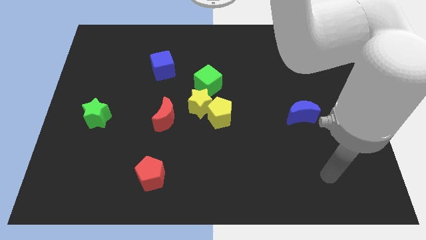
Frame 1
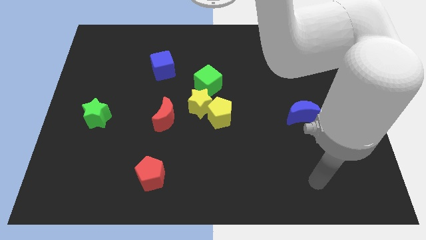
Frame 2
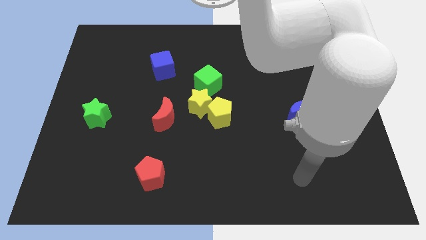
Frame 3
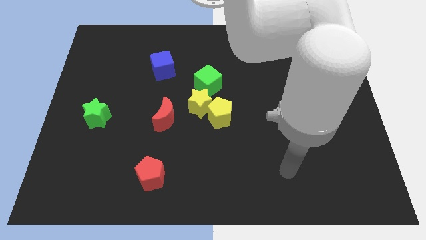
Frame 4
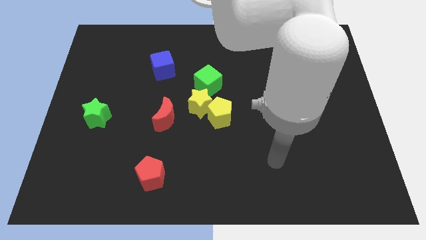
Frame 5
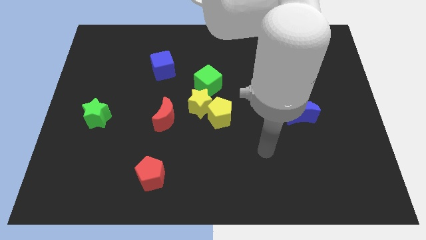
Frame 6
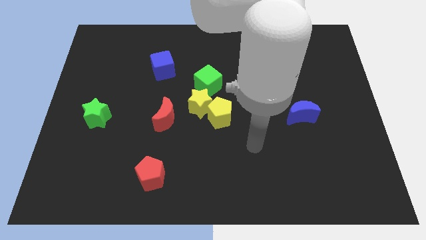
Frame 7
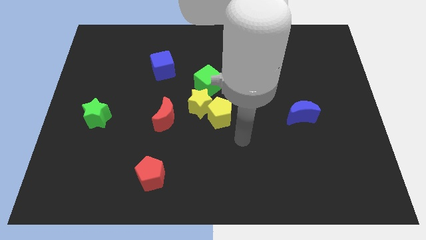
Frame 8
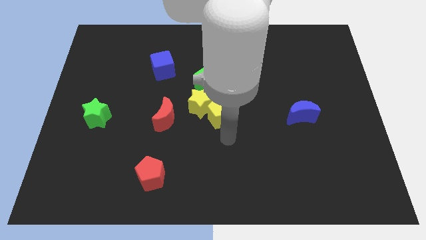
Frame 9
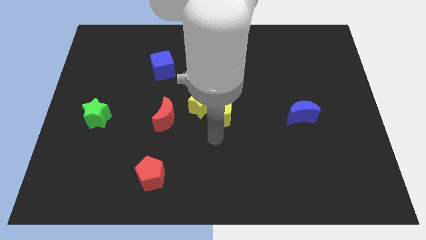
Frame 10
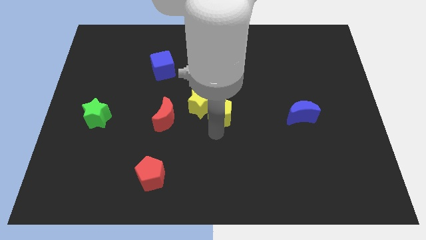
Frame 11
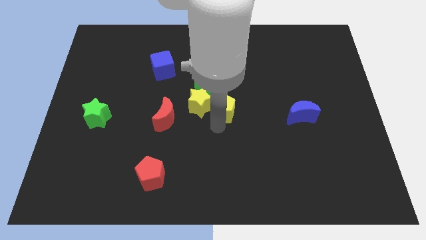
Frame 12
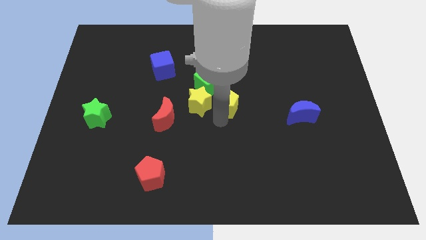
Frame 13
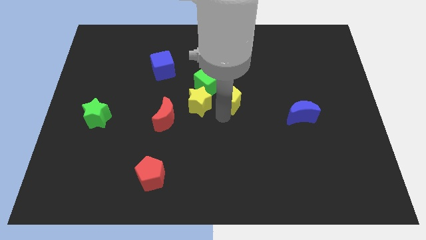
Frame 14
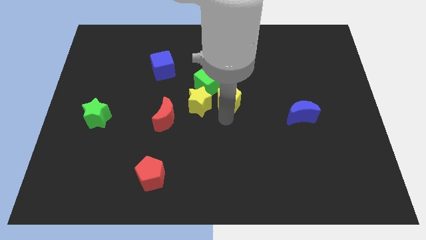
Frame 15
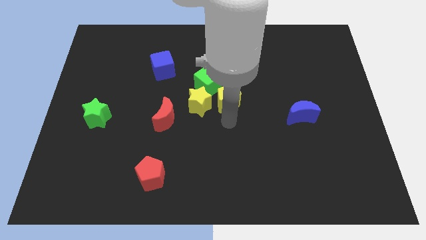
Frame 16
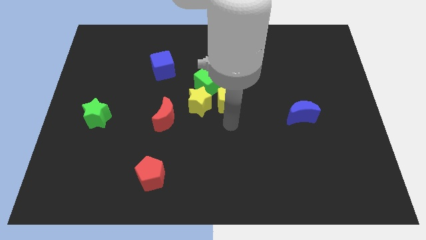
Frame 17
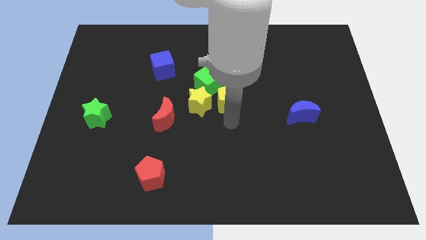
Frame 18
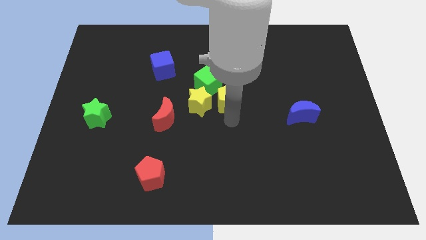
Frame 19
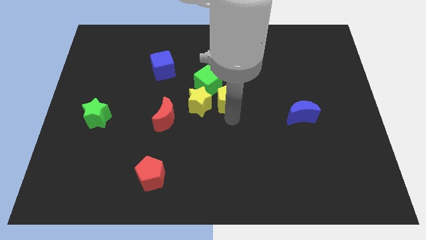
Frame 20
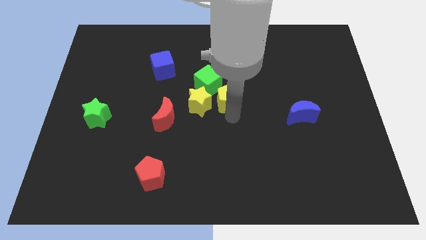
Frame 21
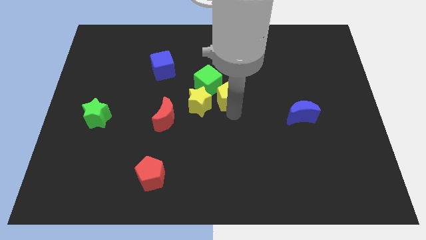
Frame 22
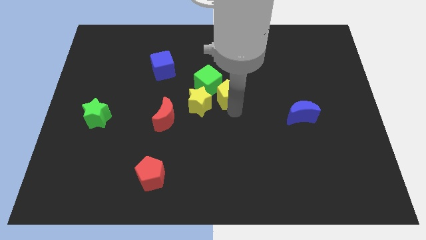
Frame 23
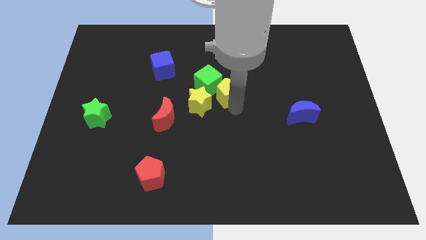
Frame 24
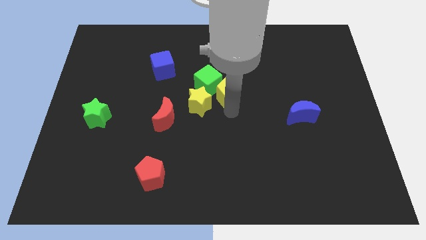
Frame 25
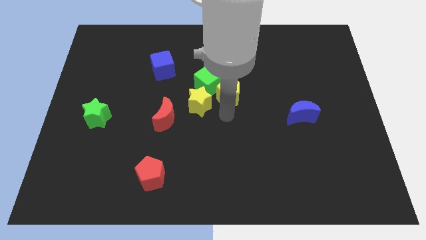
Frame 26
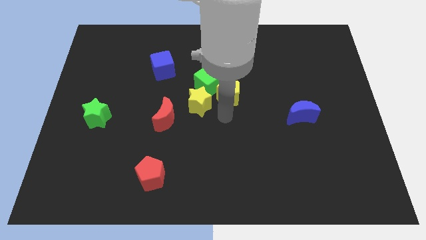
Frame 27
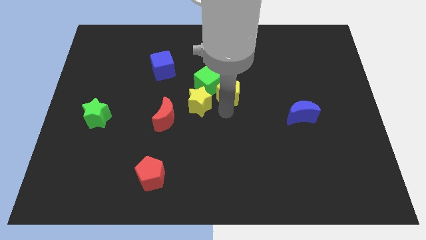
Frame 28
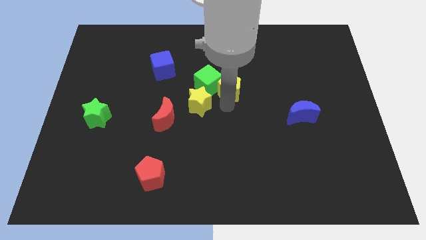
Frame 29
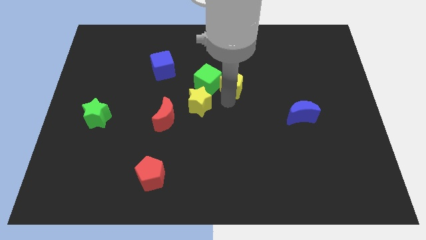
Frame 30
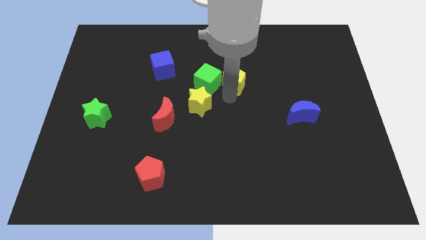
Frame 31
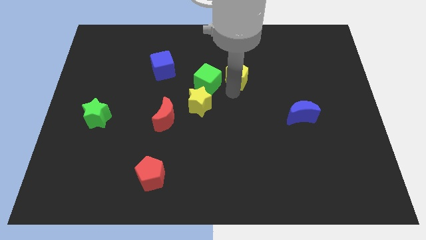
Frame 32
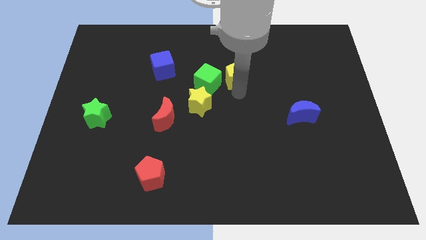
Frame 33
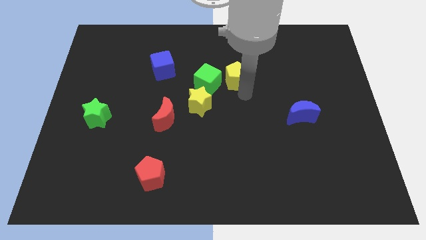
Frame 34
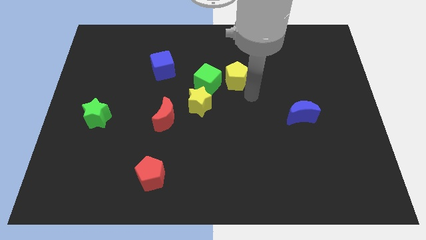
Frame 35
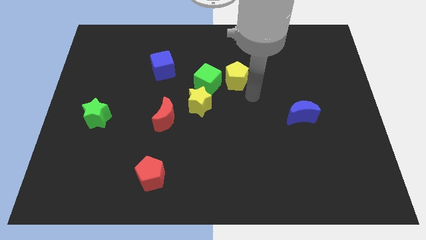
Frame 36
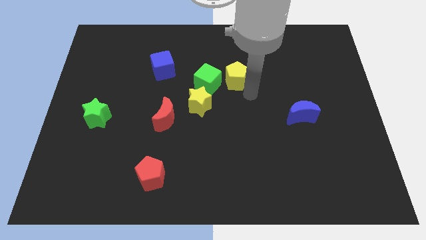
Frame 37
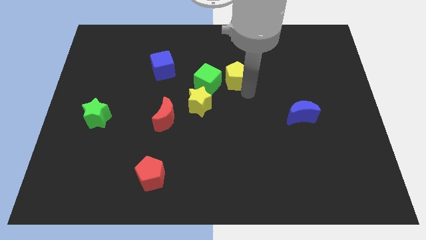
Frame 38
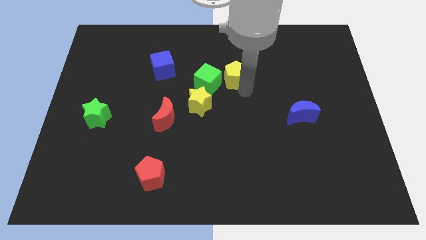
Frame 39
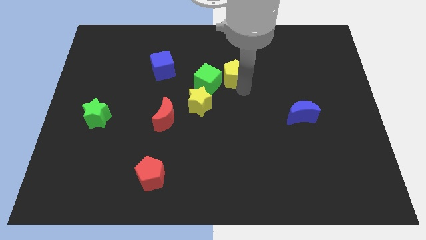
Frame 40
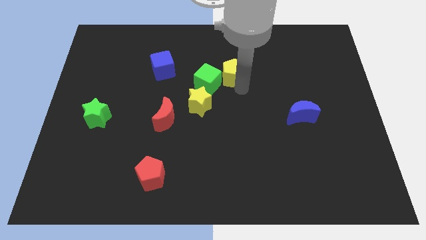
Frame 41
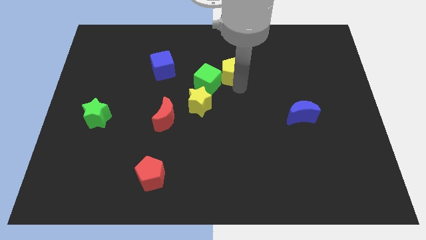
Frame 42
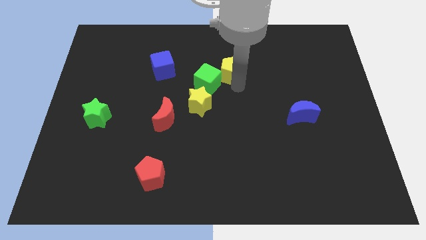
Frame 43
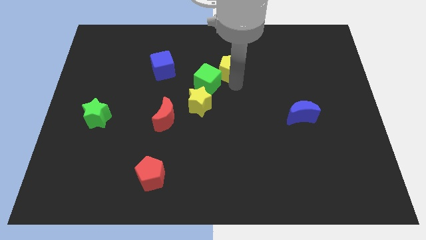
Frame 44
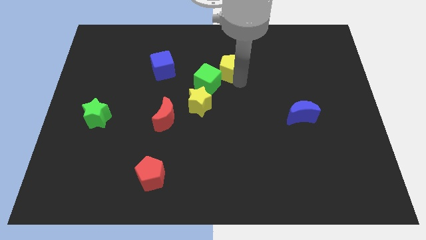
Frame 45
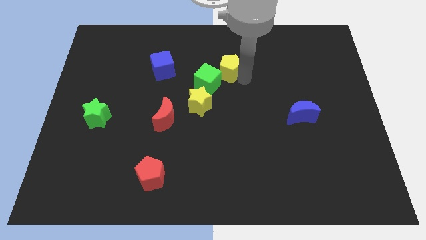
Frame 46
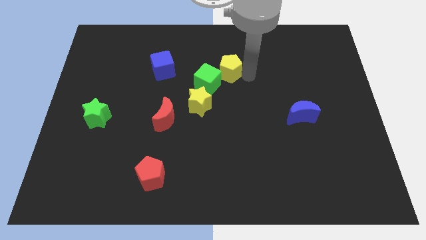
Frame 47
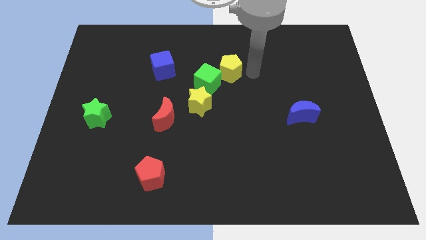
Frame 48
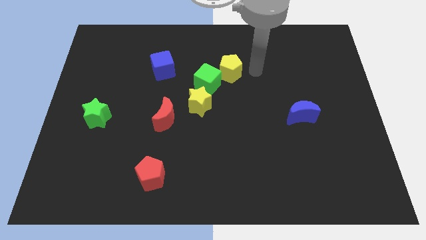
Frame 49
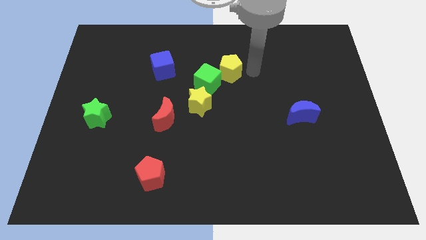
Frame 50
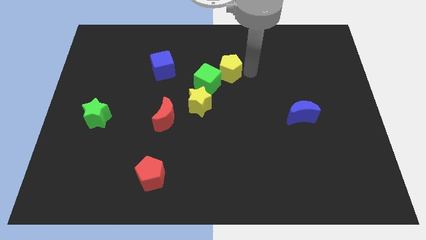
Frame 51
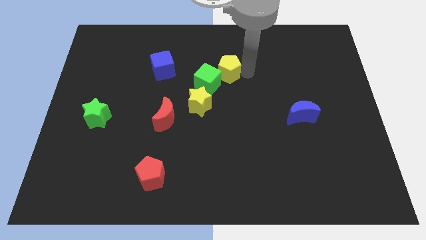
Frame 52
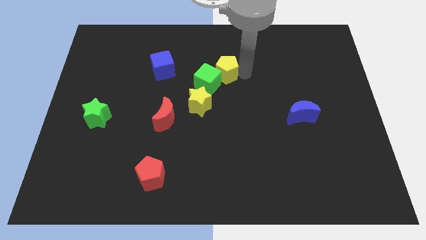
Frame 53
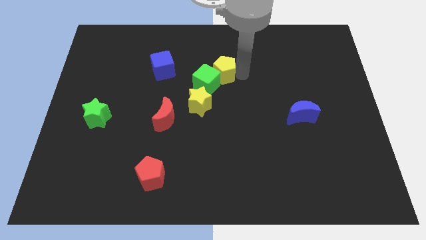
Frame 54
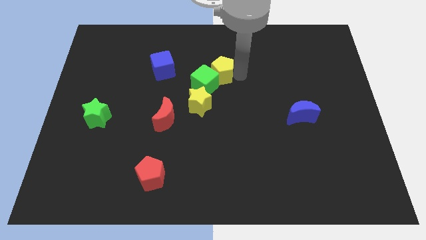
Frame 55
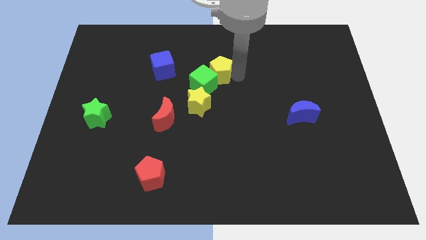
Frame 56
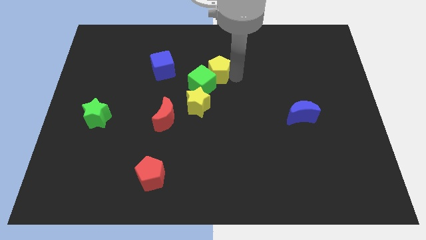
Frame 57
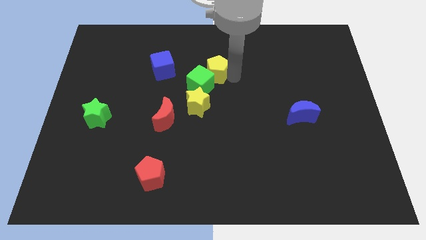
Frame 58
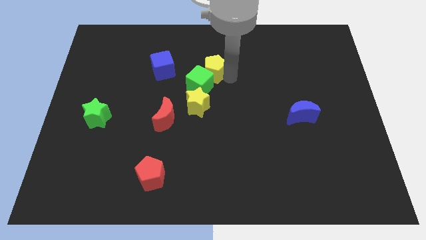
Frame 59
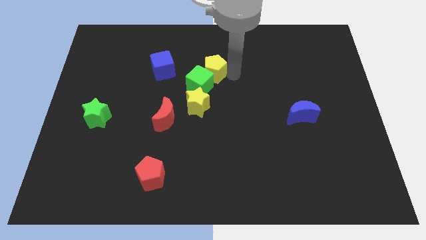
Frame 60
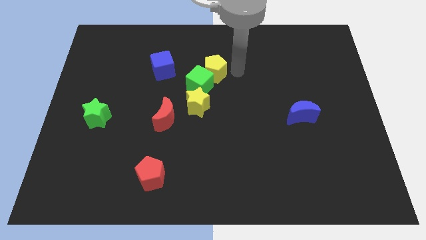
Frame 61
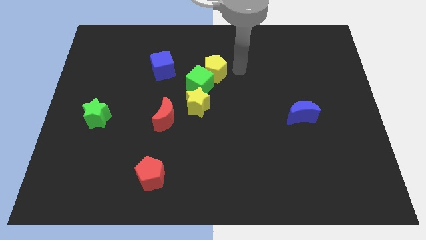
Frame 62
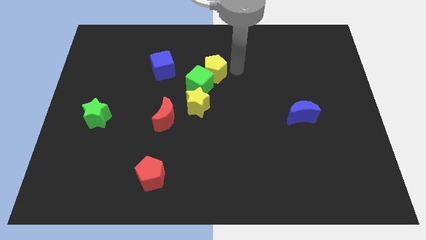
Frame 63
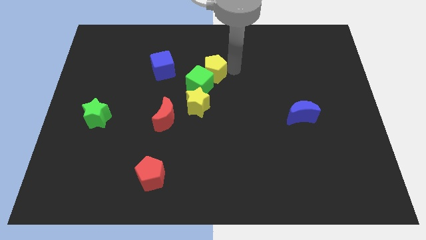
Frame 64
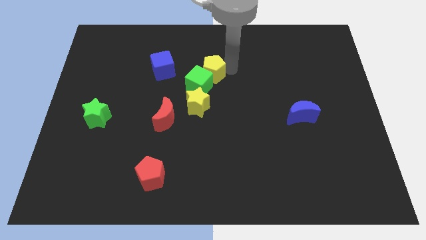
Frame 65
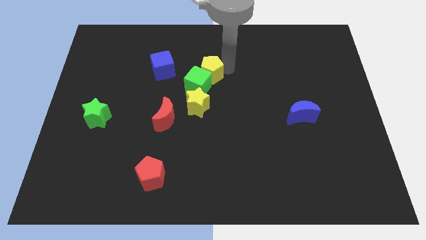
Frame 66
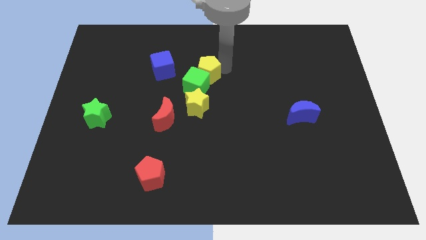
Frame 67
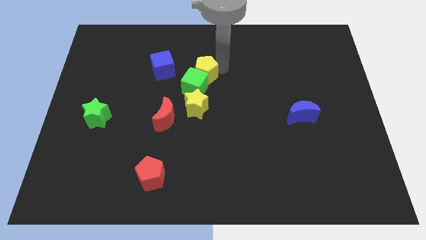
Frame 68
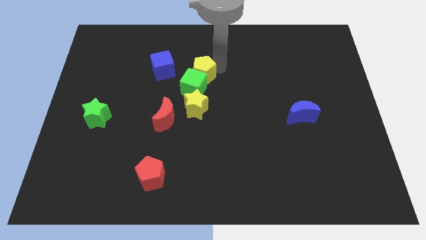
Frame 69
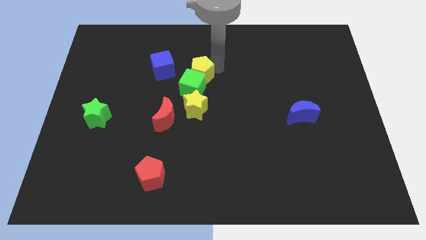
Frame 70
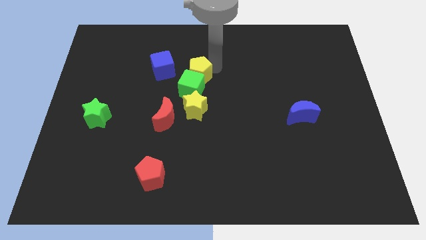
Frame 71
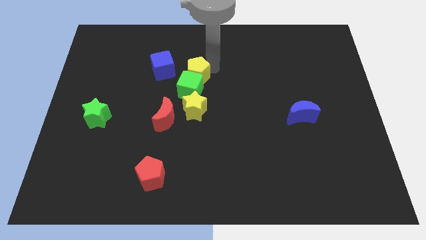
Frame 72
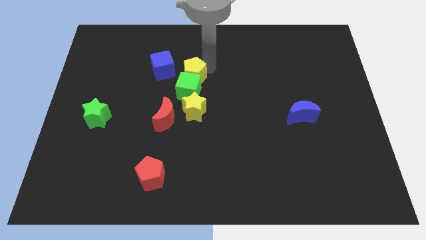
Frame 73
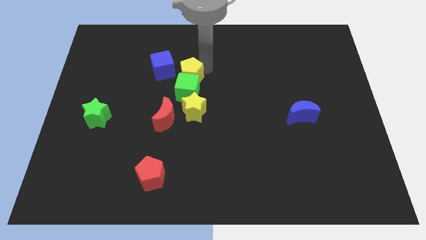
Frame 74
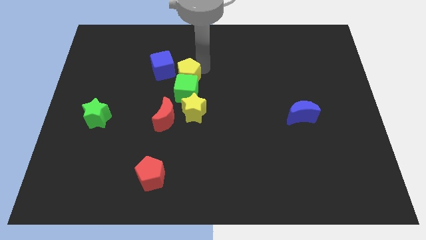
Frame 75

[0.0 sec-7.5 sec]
slide the yellow pentagon to the top side of the red moon
